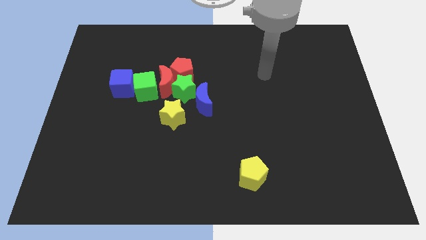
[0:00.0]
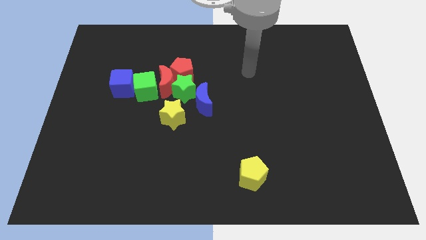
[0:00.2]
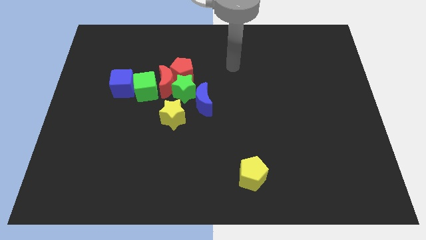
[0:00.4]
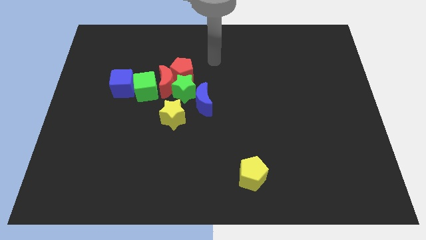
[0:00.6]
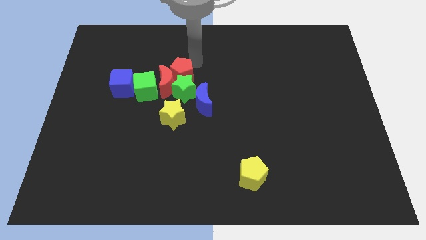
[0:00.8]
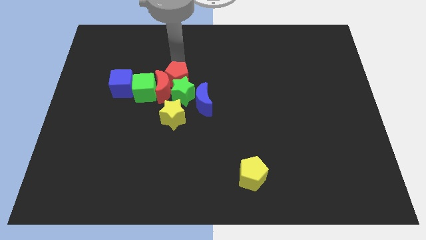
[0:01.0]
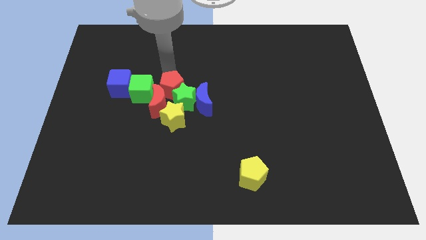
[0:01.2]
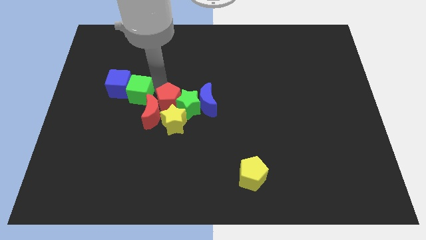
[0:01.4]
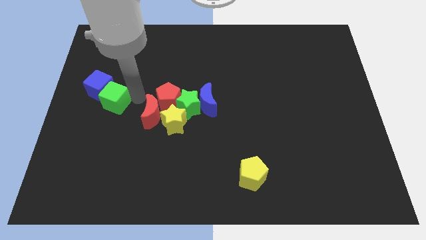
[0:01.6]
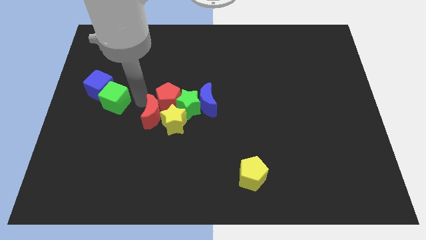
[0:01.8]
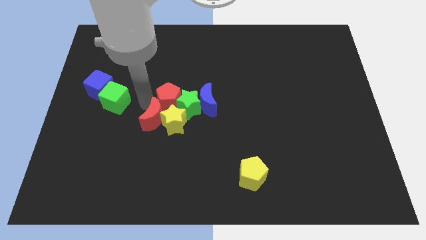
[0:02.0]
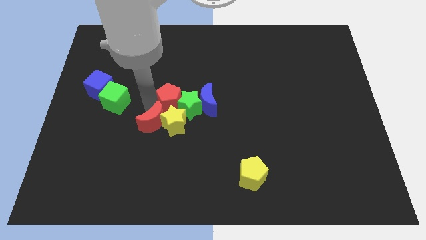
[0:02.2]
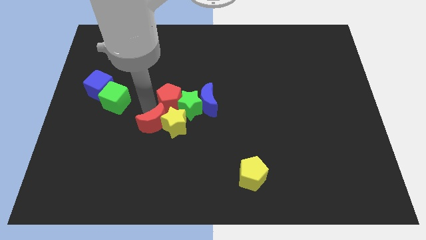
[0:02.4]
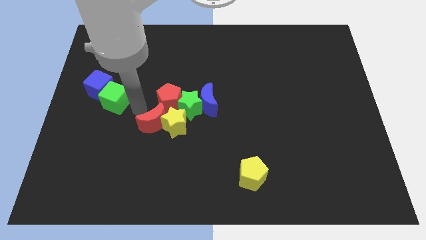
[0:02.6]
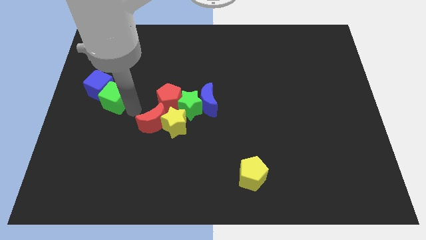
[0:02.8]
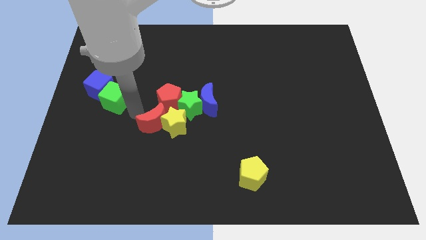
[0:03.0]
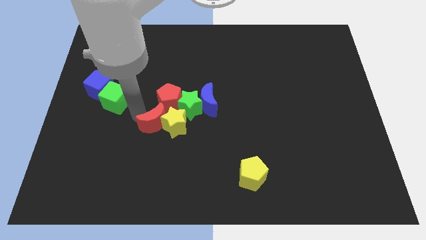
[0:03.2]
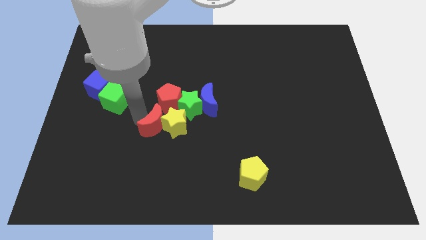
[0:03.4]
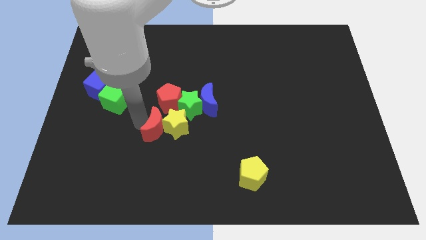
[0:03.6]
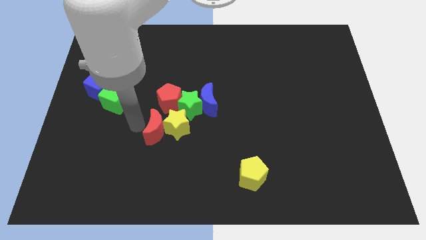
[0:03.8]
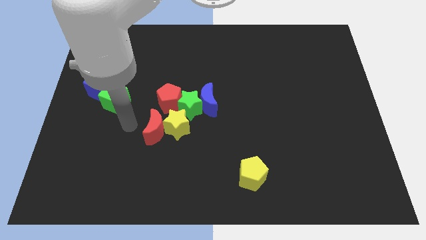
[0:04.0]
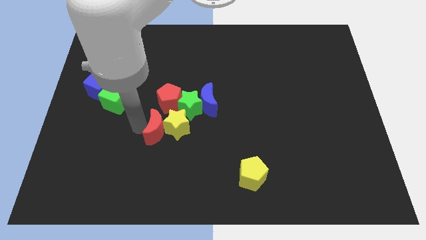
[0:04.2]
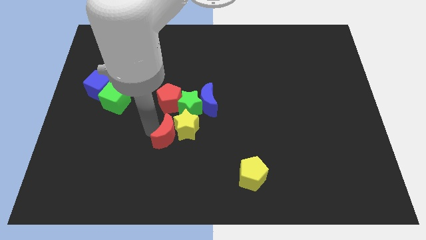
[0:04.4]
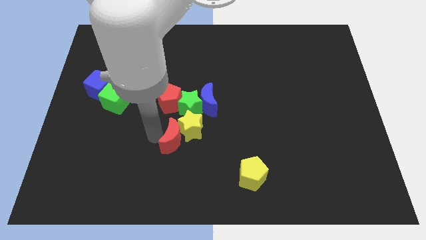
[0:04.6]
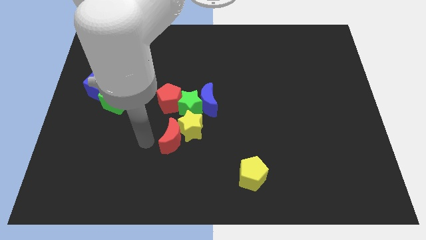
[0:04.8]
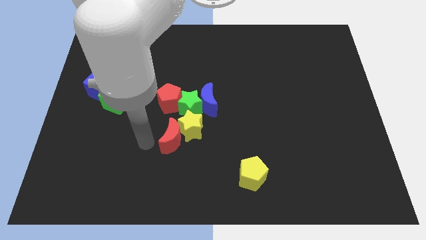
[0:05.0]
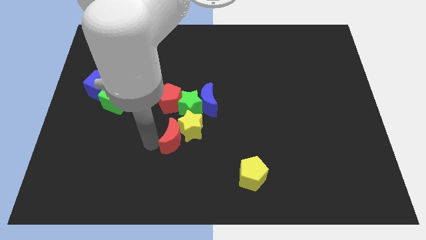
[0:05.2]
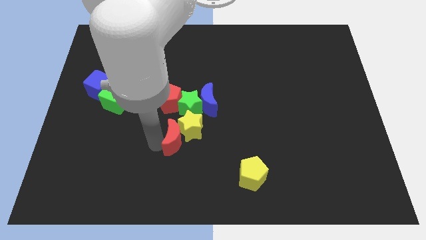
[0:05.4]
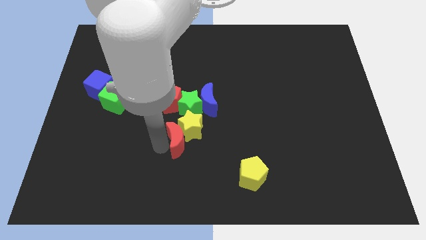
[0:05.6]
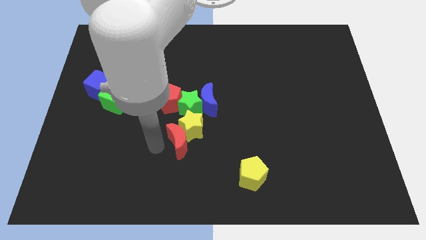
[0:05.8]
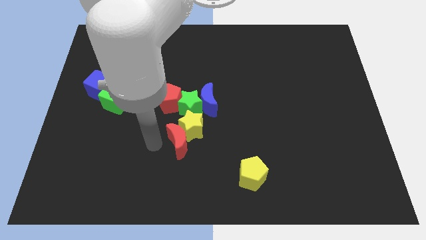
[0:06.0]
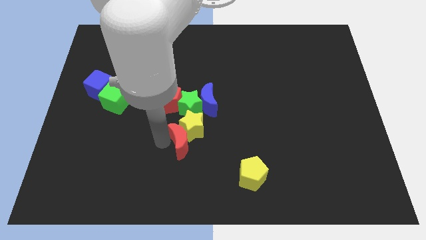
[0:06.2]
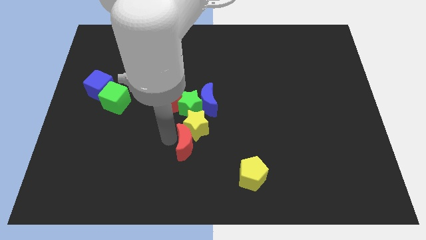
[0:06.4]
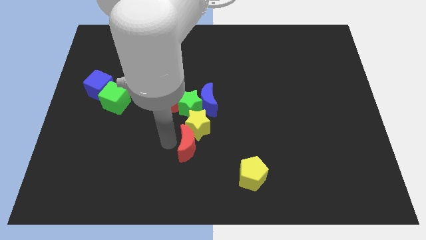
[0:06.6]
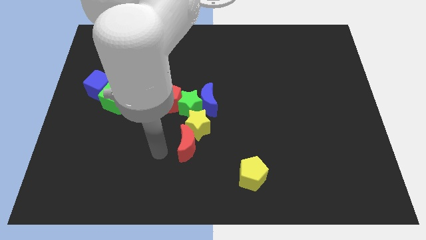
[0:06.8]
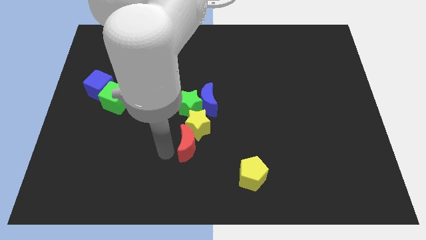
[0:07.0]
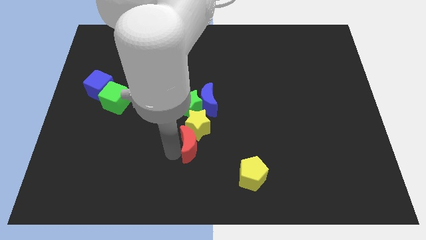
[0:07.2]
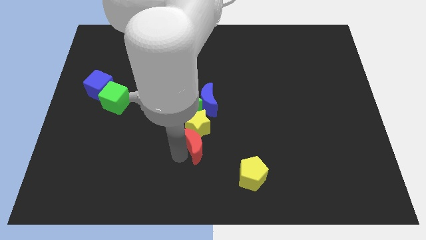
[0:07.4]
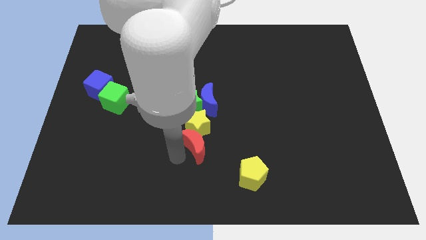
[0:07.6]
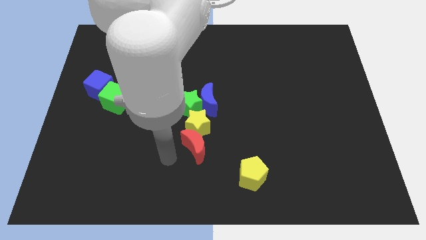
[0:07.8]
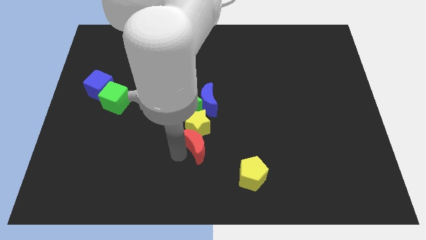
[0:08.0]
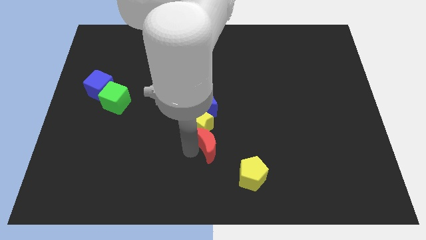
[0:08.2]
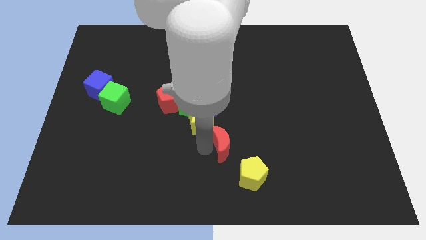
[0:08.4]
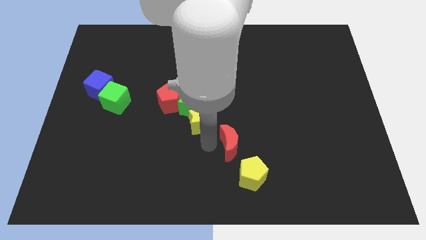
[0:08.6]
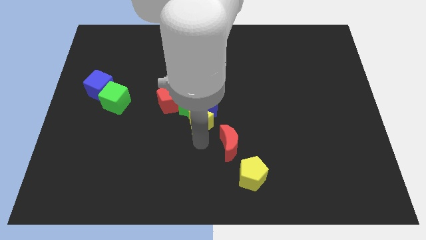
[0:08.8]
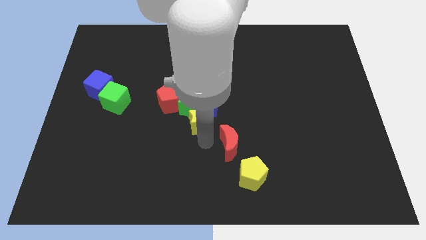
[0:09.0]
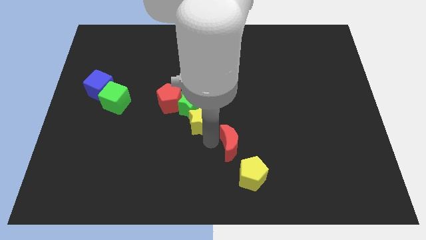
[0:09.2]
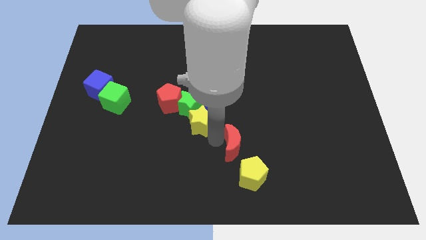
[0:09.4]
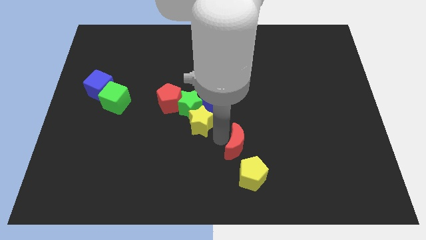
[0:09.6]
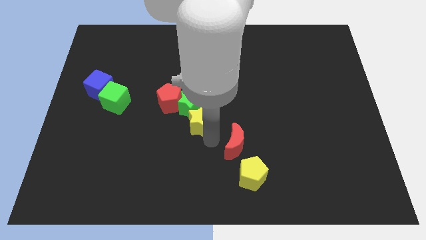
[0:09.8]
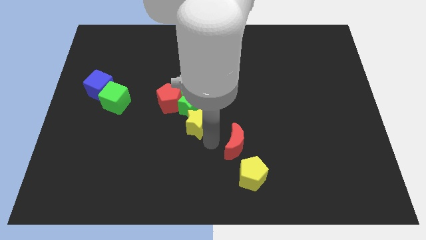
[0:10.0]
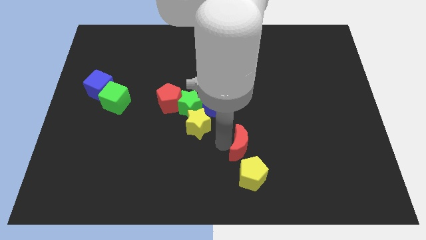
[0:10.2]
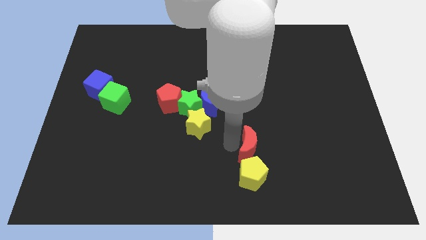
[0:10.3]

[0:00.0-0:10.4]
slide the red moon to the top right of the yellow pentagon

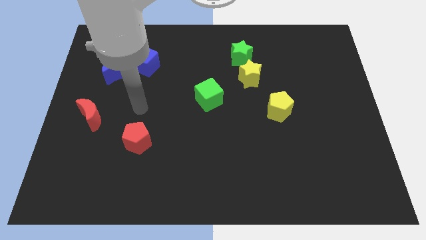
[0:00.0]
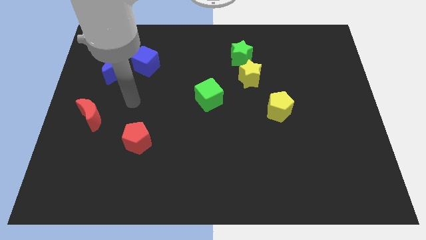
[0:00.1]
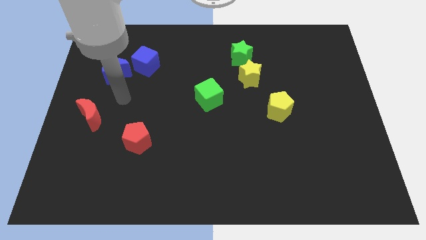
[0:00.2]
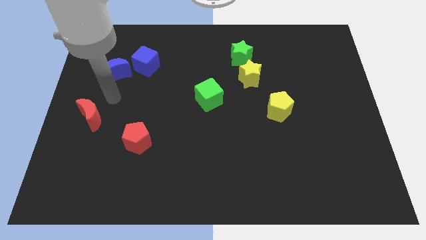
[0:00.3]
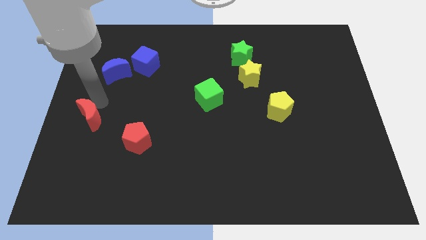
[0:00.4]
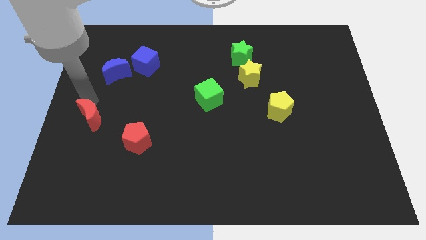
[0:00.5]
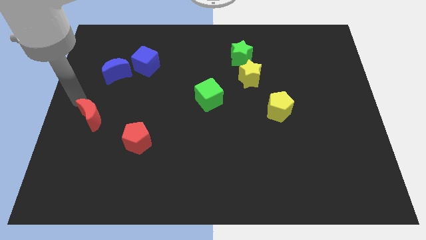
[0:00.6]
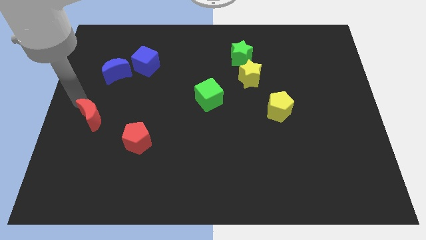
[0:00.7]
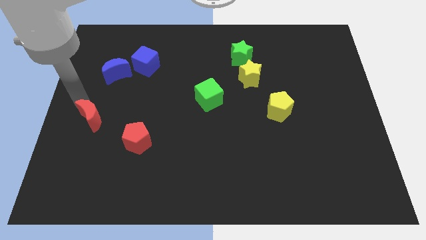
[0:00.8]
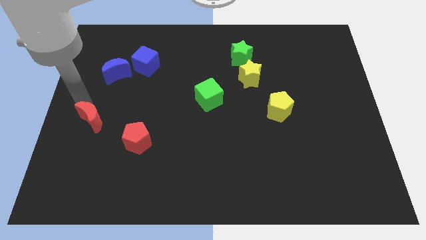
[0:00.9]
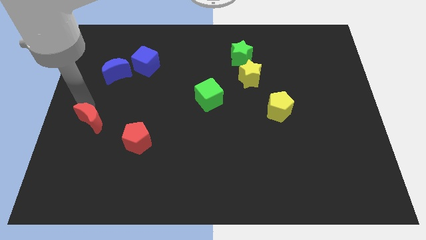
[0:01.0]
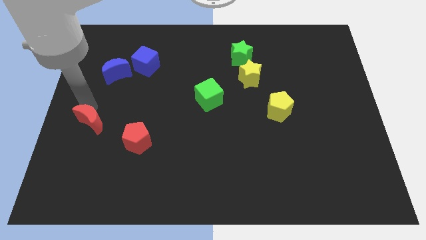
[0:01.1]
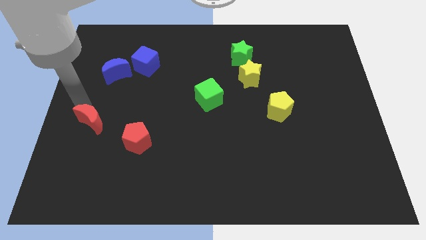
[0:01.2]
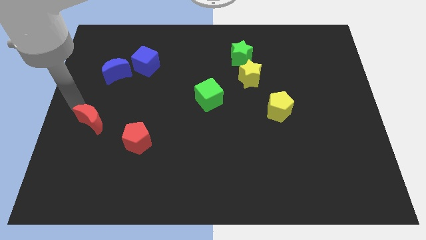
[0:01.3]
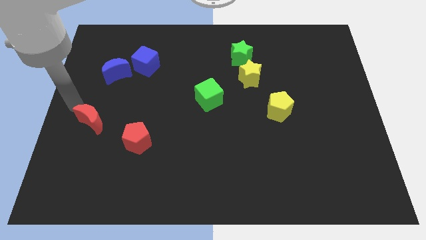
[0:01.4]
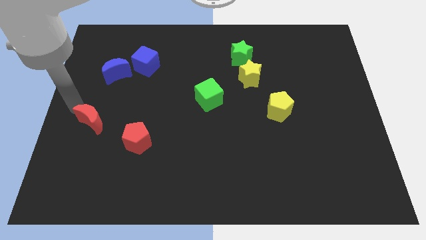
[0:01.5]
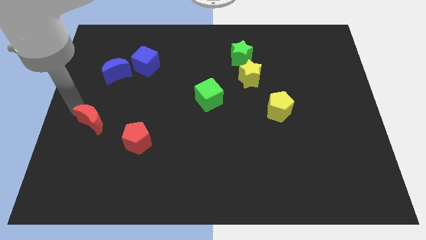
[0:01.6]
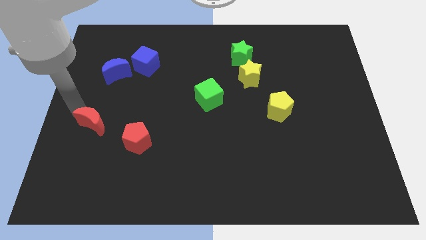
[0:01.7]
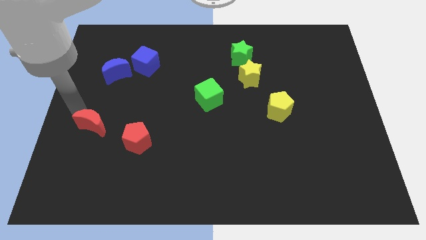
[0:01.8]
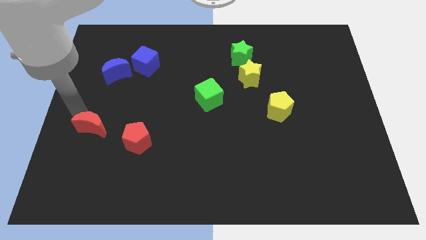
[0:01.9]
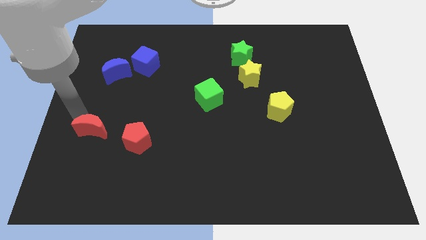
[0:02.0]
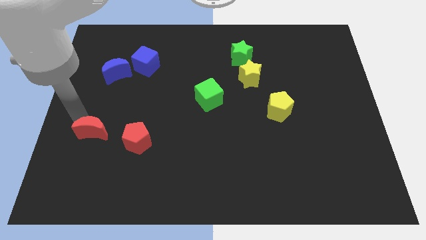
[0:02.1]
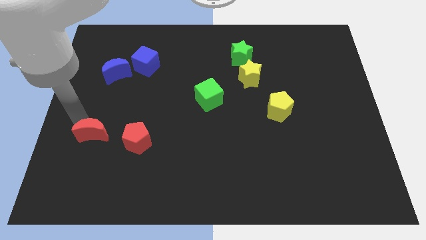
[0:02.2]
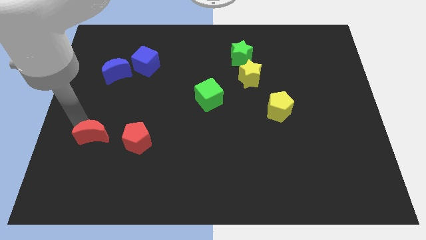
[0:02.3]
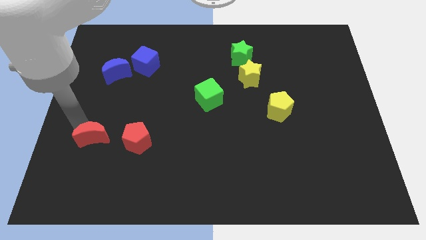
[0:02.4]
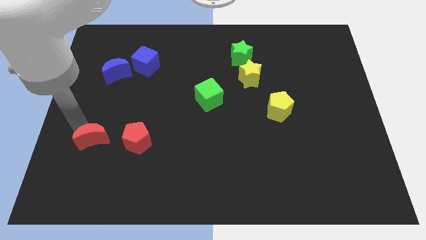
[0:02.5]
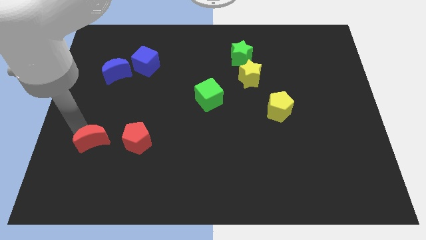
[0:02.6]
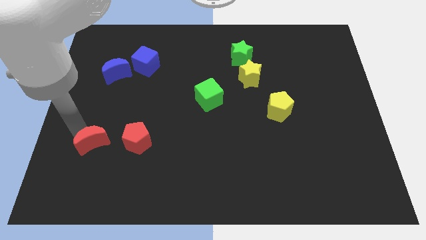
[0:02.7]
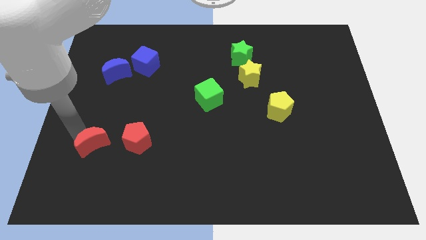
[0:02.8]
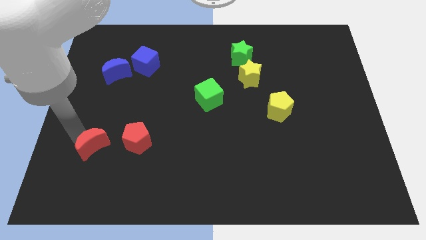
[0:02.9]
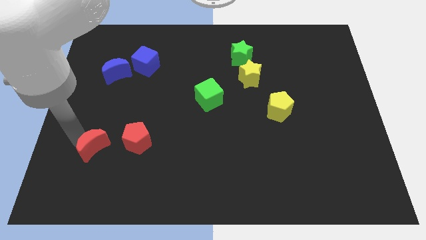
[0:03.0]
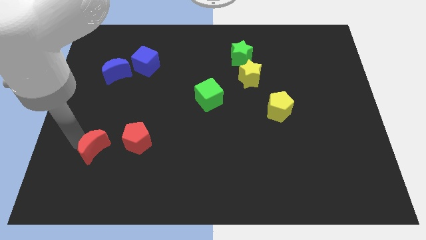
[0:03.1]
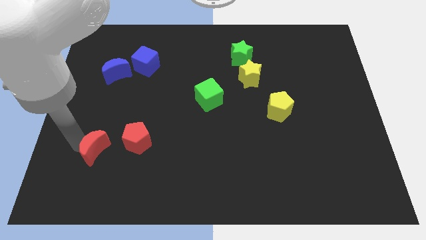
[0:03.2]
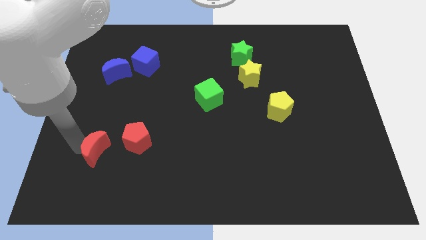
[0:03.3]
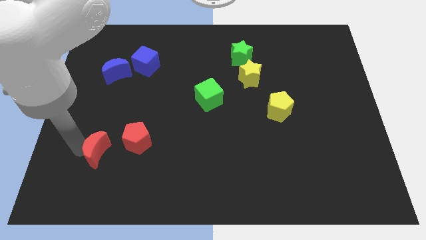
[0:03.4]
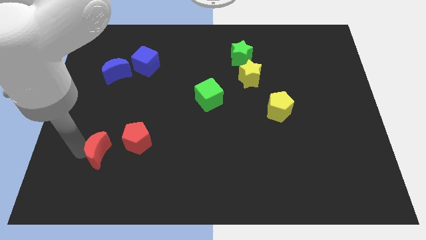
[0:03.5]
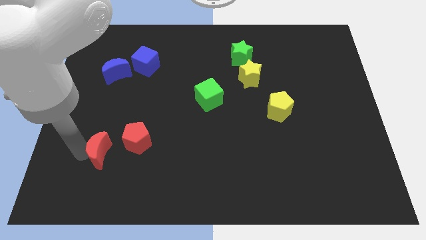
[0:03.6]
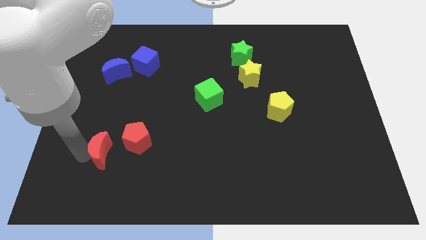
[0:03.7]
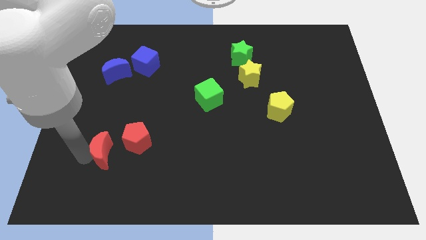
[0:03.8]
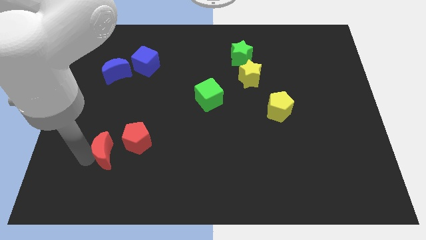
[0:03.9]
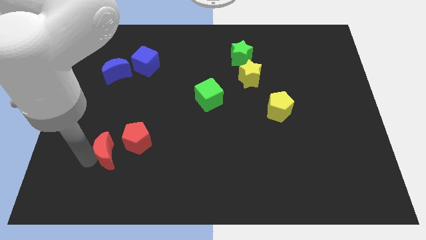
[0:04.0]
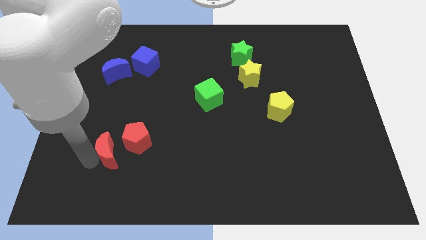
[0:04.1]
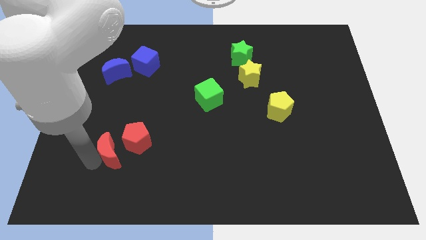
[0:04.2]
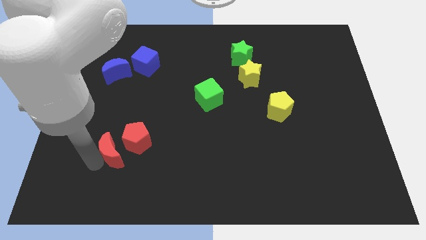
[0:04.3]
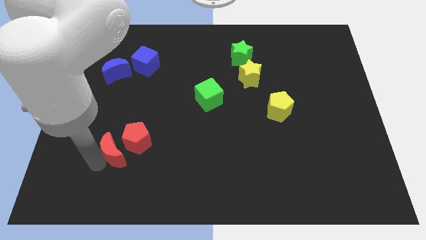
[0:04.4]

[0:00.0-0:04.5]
put the red moon below the red pentagon
